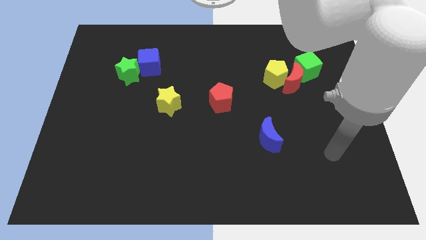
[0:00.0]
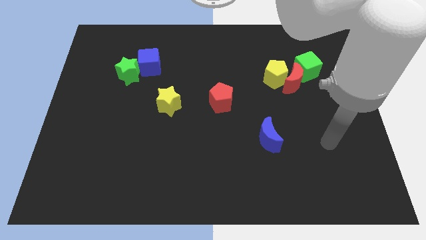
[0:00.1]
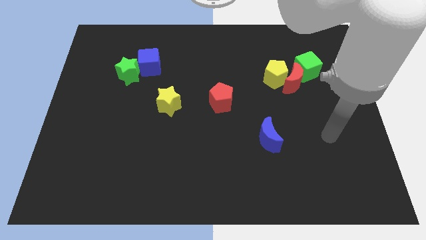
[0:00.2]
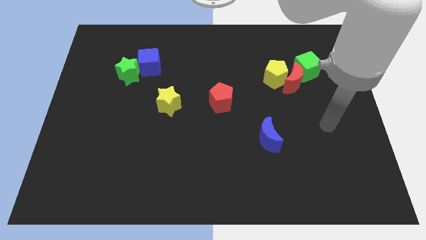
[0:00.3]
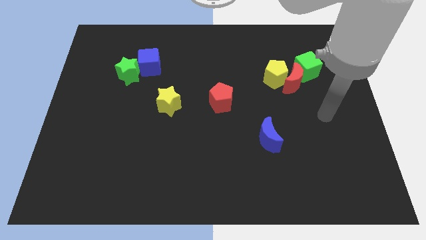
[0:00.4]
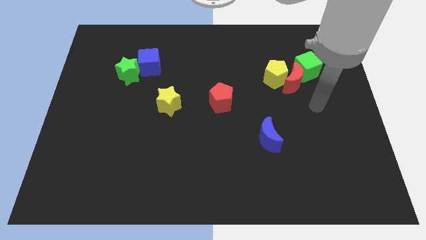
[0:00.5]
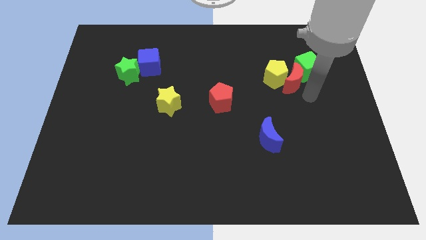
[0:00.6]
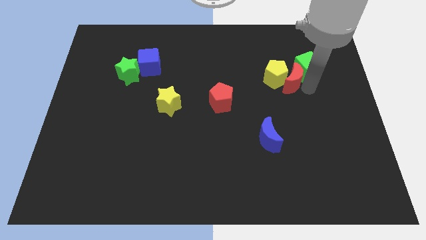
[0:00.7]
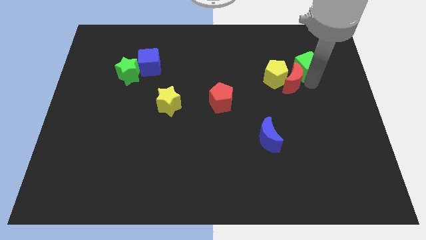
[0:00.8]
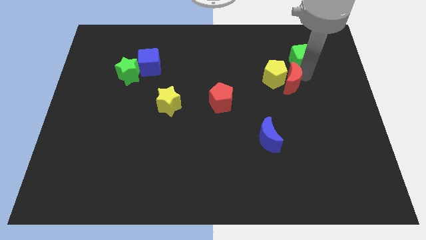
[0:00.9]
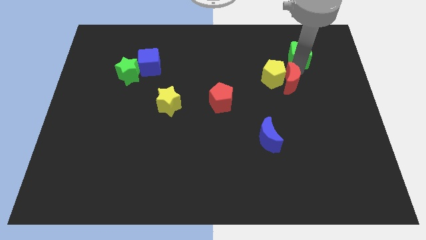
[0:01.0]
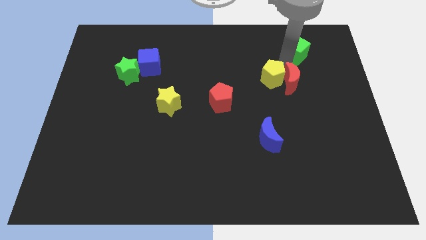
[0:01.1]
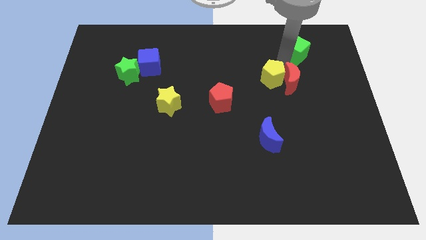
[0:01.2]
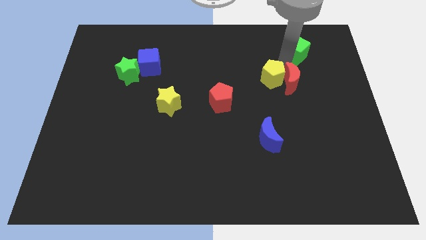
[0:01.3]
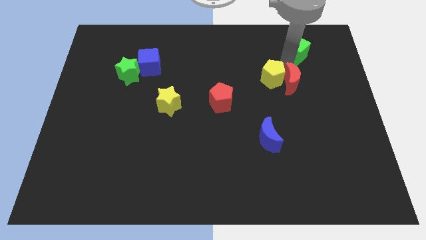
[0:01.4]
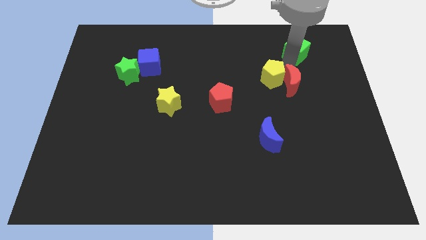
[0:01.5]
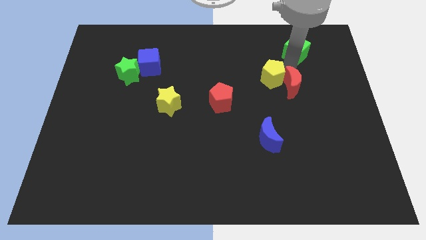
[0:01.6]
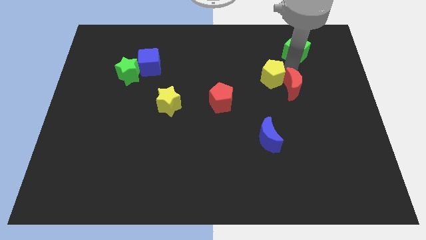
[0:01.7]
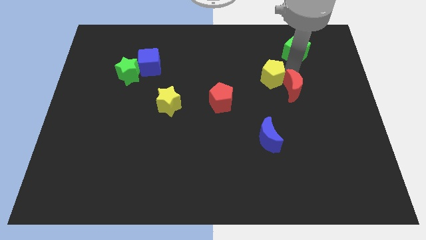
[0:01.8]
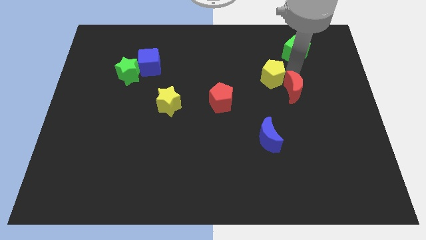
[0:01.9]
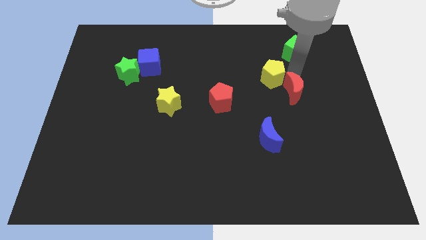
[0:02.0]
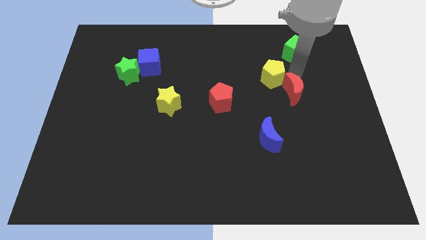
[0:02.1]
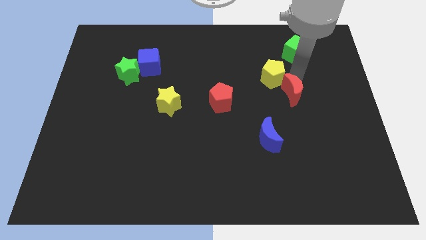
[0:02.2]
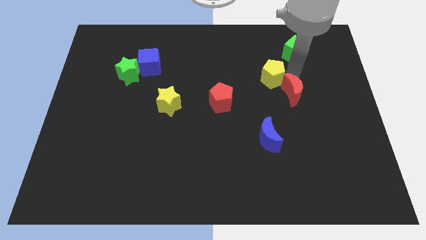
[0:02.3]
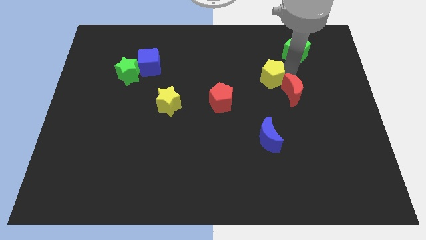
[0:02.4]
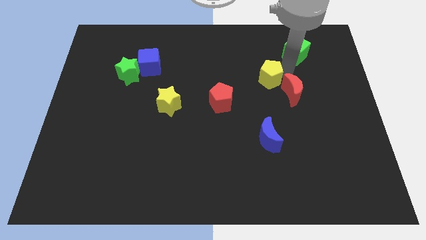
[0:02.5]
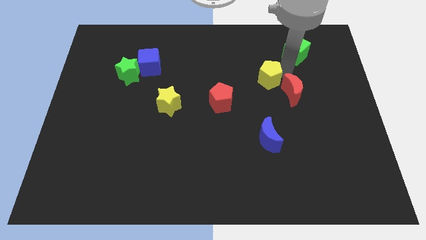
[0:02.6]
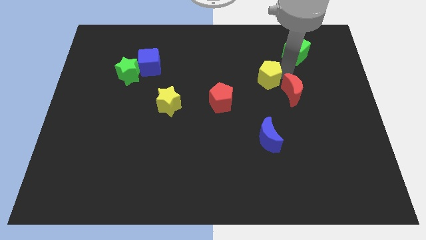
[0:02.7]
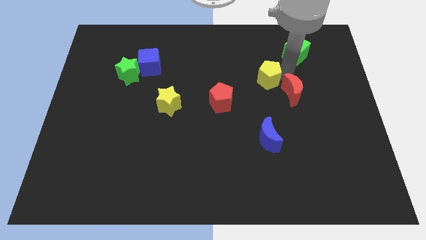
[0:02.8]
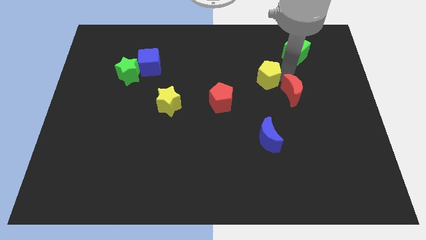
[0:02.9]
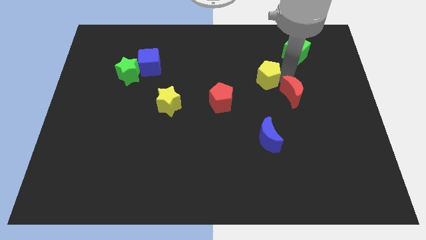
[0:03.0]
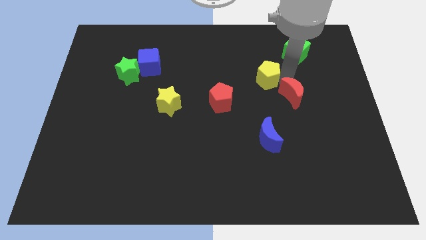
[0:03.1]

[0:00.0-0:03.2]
separate the red moon from the yellow pentagon and green cube

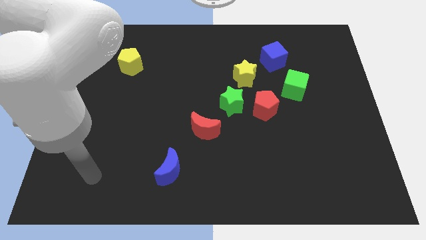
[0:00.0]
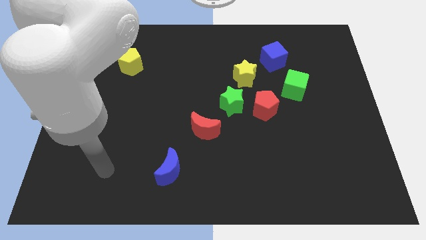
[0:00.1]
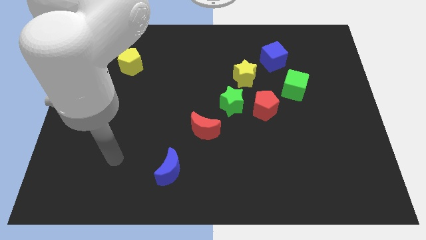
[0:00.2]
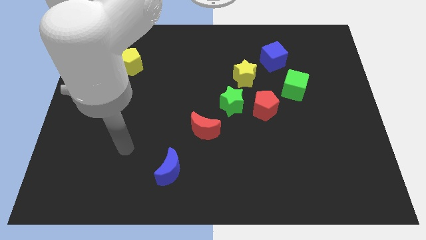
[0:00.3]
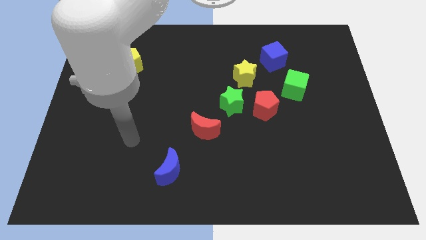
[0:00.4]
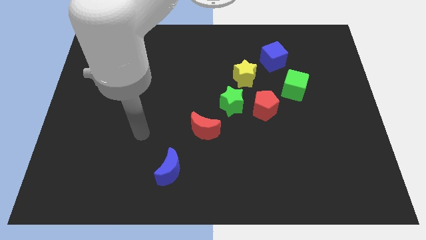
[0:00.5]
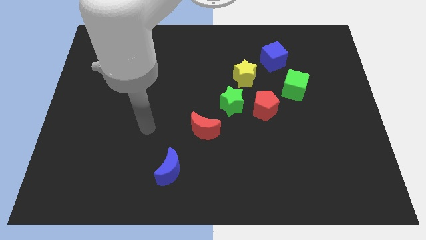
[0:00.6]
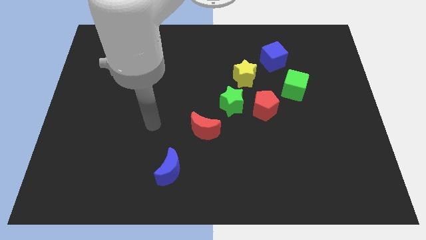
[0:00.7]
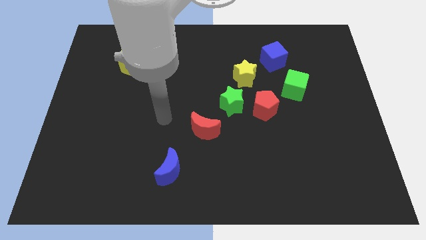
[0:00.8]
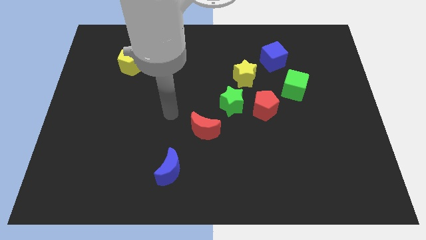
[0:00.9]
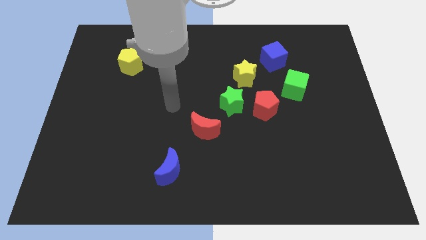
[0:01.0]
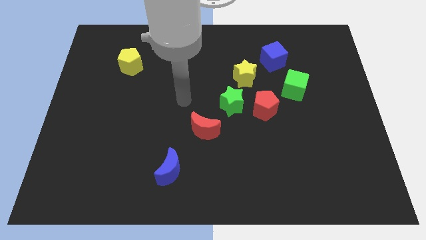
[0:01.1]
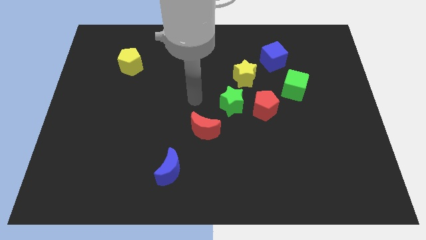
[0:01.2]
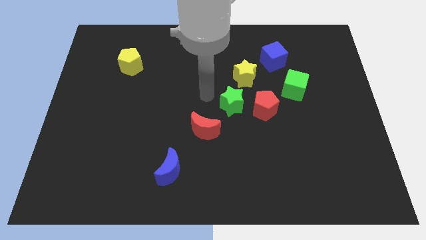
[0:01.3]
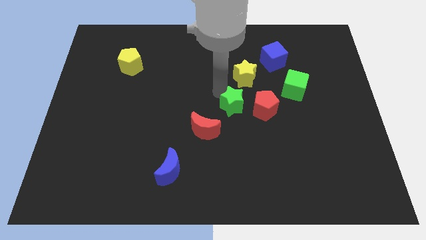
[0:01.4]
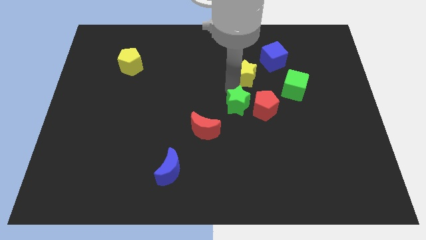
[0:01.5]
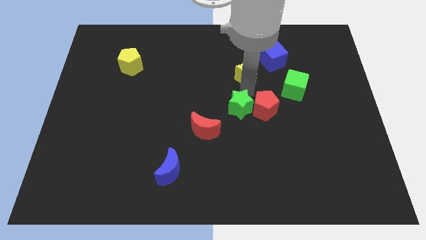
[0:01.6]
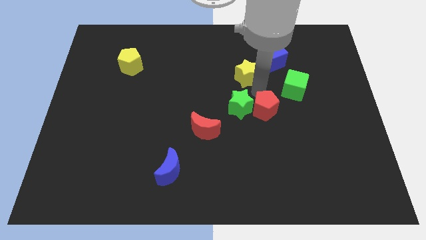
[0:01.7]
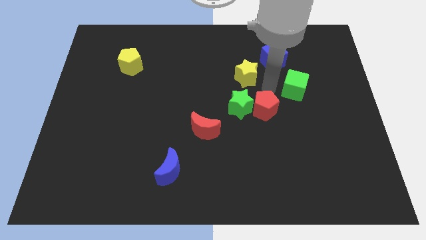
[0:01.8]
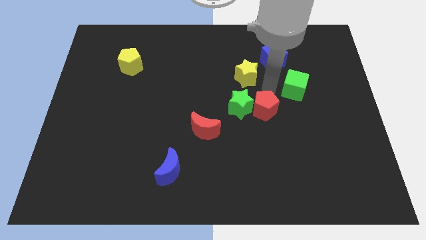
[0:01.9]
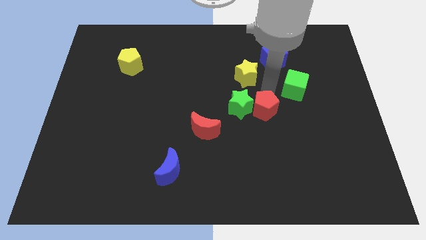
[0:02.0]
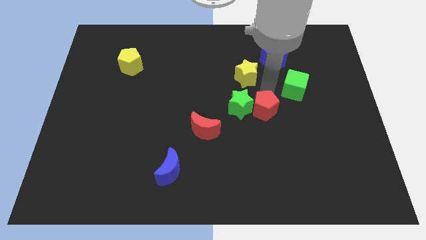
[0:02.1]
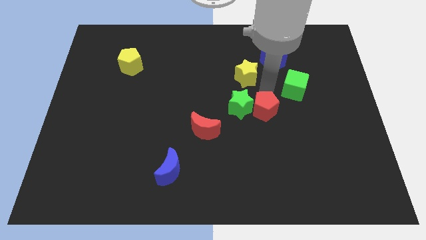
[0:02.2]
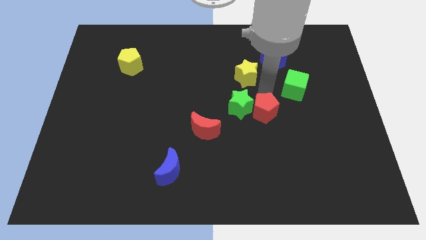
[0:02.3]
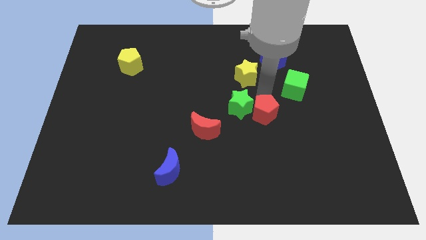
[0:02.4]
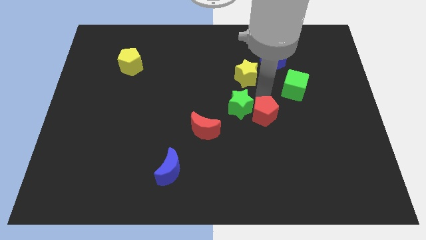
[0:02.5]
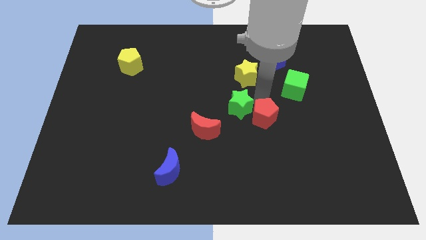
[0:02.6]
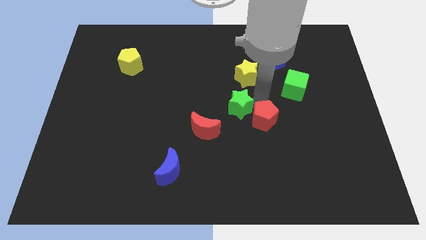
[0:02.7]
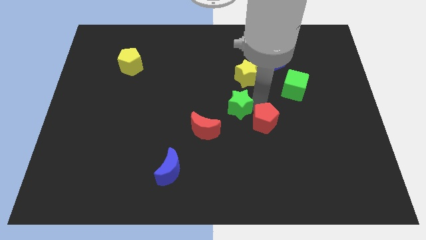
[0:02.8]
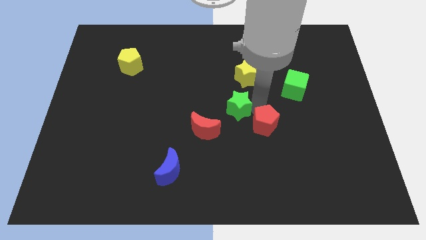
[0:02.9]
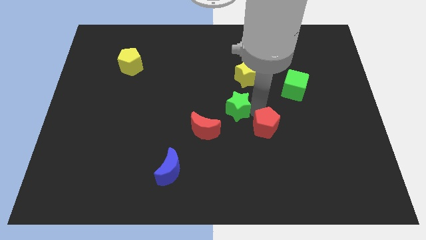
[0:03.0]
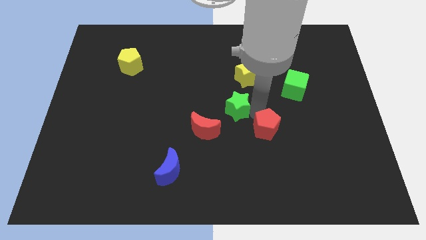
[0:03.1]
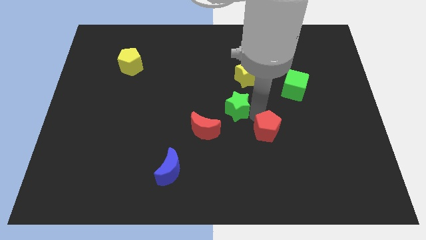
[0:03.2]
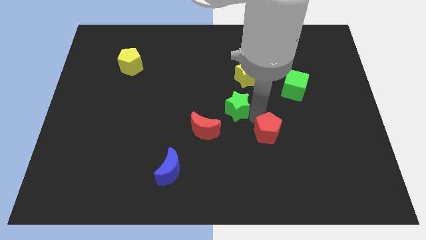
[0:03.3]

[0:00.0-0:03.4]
separate the red pentagon from the green star and green cube

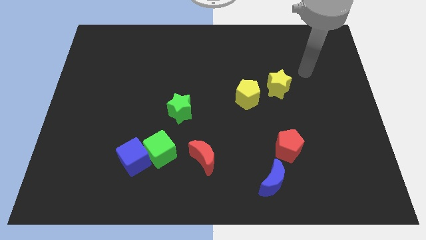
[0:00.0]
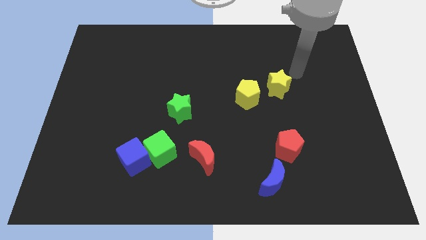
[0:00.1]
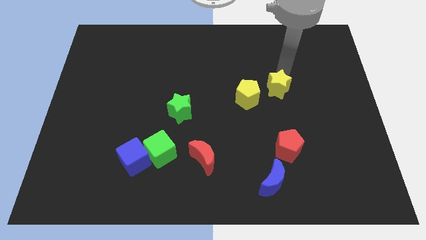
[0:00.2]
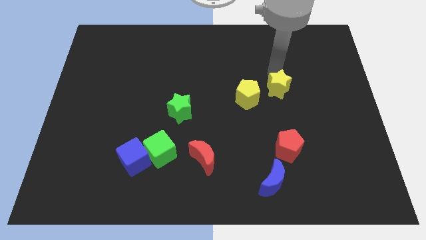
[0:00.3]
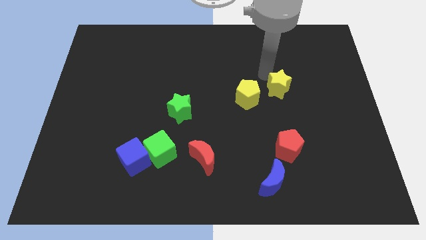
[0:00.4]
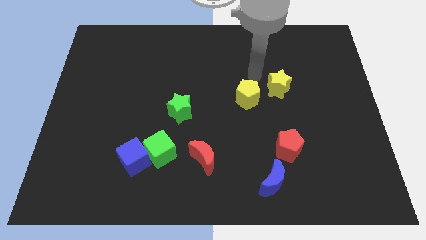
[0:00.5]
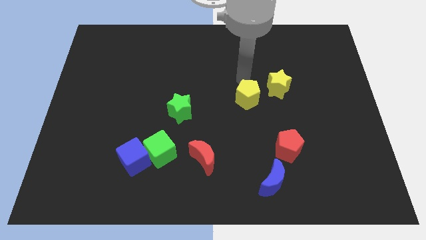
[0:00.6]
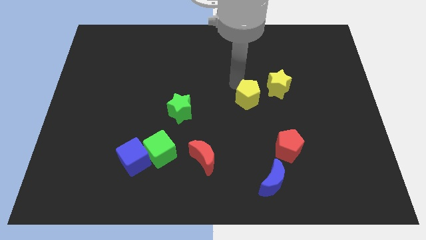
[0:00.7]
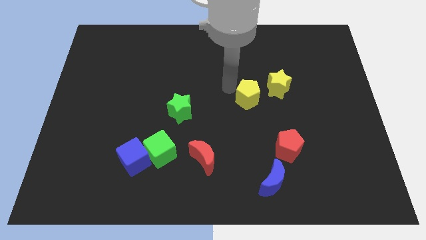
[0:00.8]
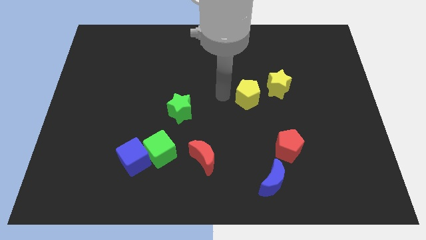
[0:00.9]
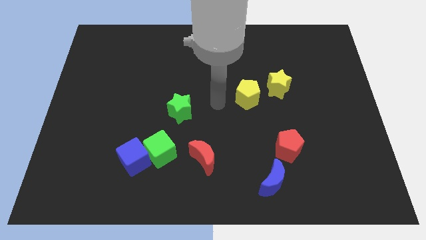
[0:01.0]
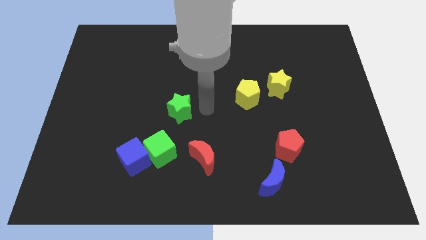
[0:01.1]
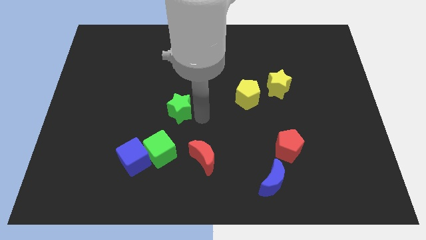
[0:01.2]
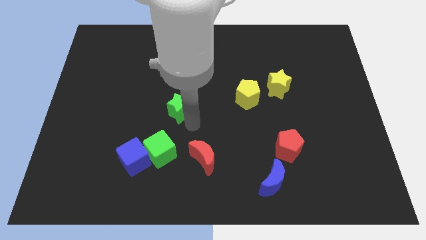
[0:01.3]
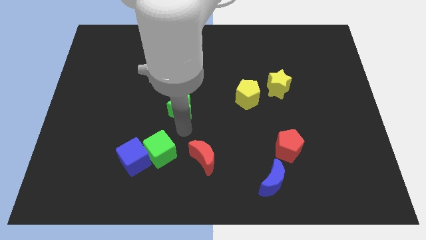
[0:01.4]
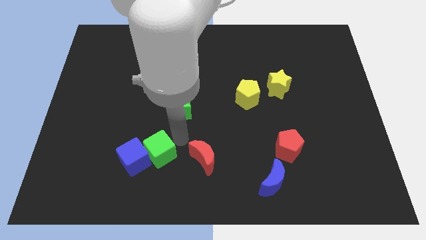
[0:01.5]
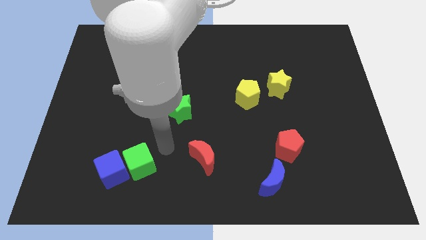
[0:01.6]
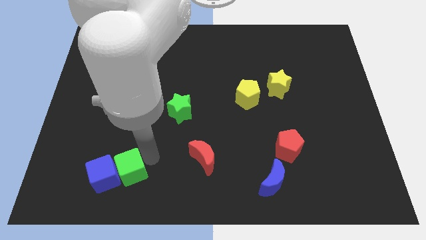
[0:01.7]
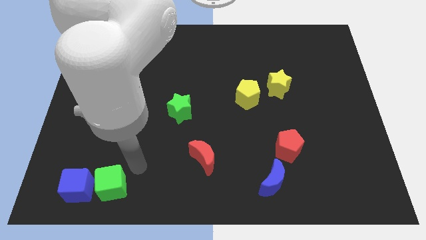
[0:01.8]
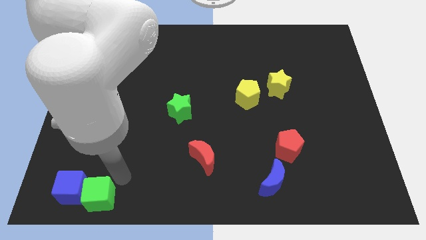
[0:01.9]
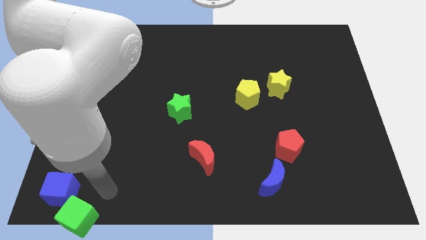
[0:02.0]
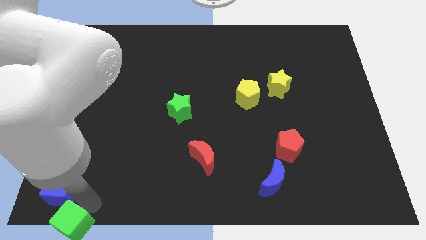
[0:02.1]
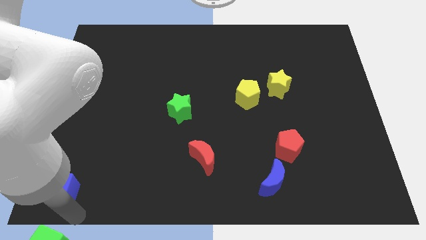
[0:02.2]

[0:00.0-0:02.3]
pull the blue cube apart from the green cube

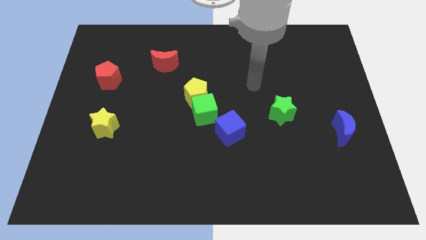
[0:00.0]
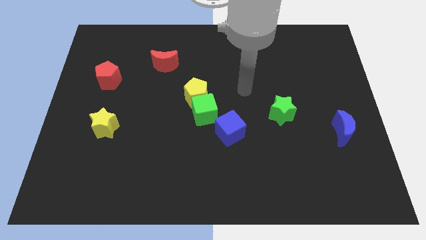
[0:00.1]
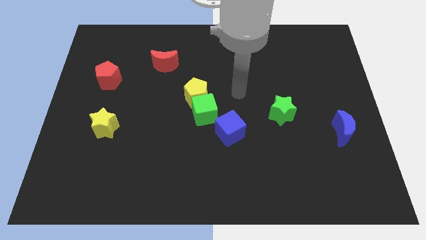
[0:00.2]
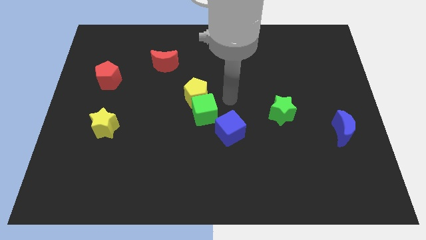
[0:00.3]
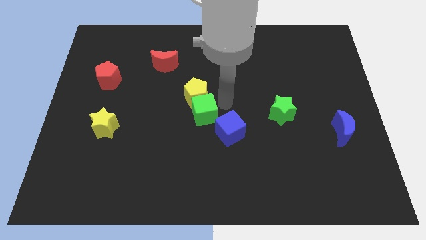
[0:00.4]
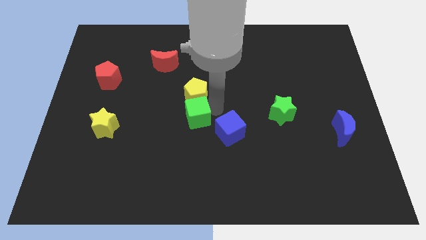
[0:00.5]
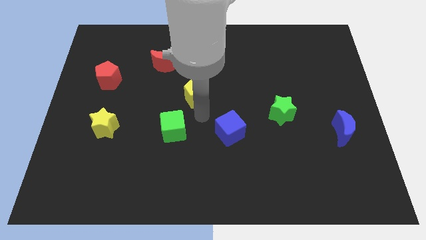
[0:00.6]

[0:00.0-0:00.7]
pull the yellow pentagon apart from the green cube
